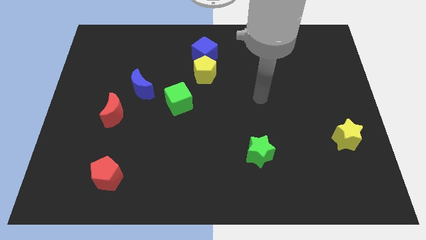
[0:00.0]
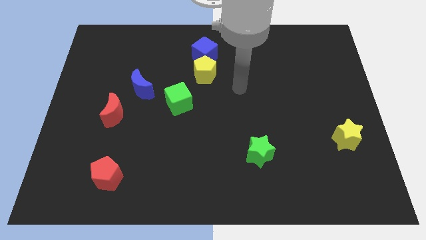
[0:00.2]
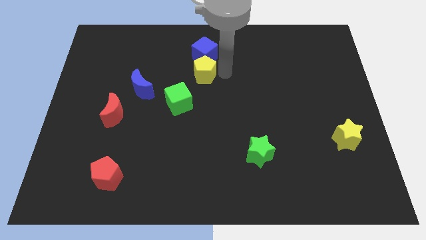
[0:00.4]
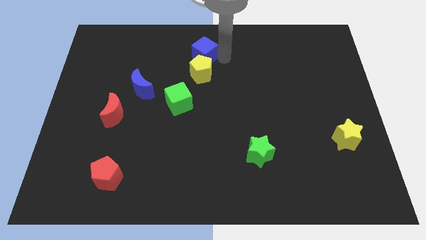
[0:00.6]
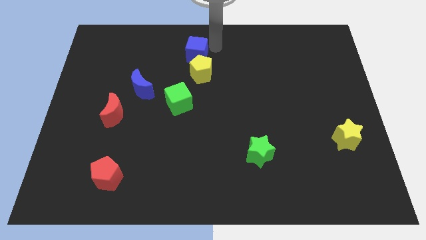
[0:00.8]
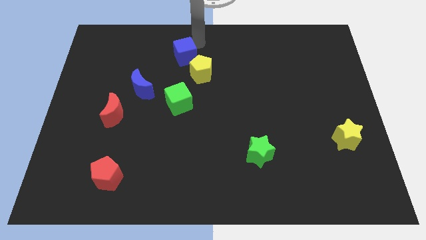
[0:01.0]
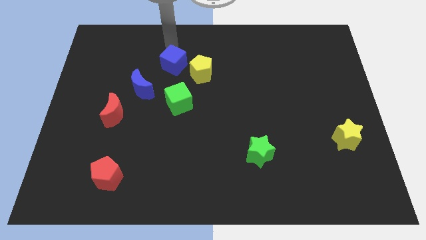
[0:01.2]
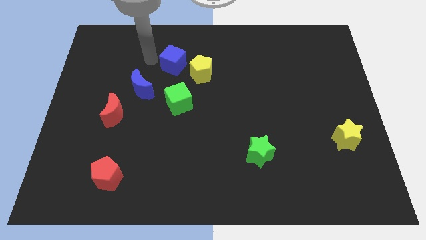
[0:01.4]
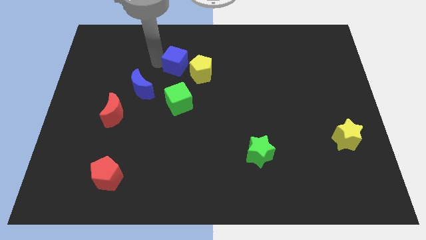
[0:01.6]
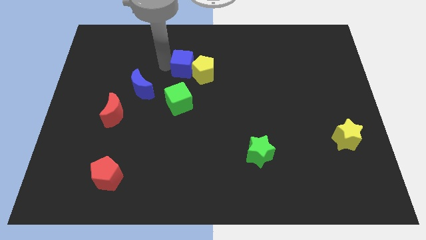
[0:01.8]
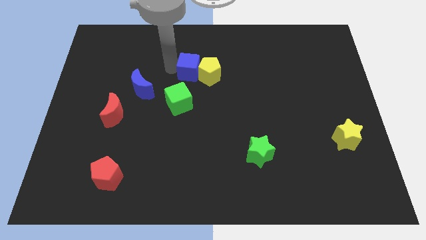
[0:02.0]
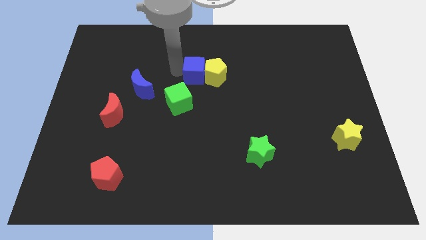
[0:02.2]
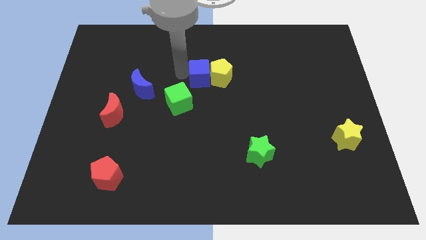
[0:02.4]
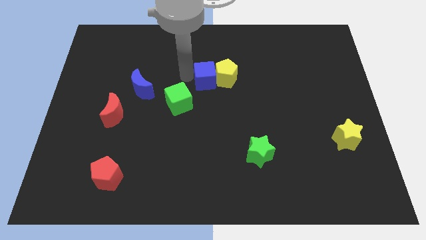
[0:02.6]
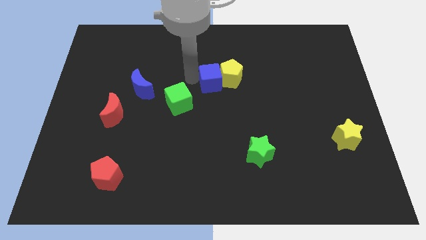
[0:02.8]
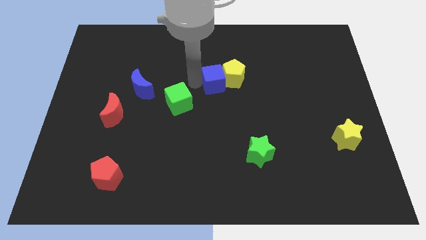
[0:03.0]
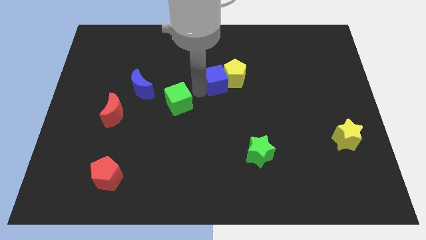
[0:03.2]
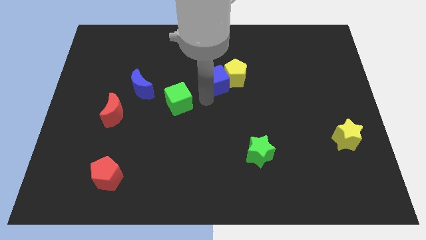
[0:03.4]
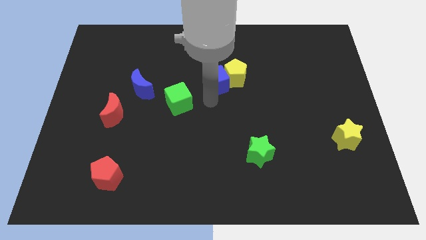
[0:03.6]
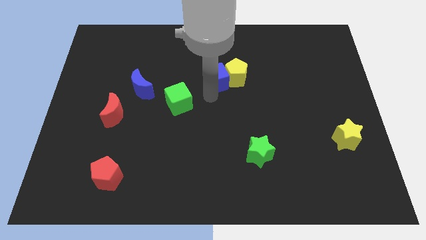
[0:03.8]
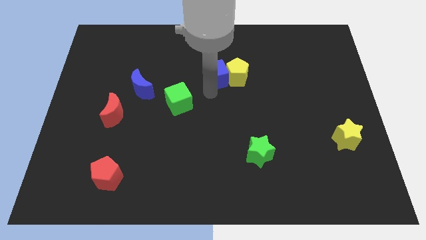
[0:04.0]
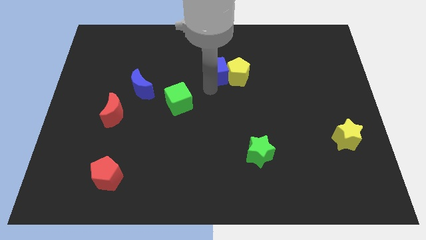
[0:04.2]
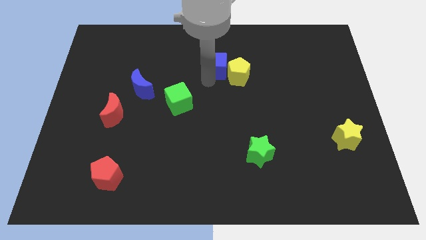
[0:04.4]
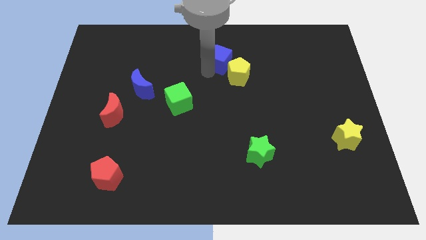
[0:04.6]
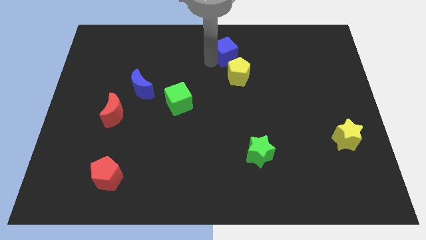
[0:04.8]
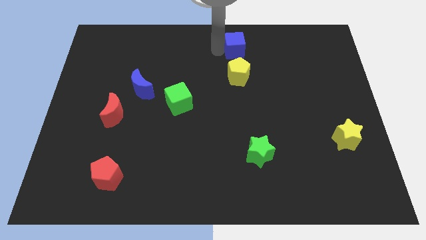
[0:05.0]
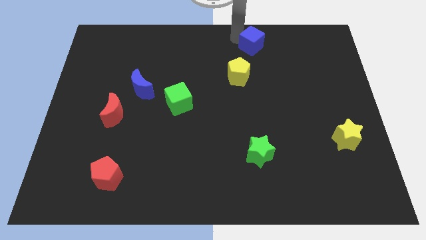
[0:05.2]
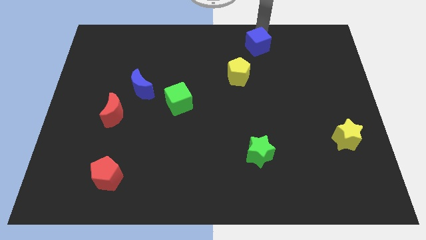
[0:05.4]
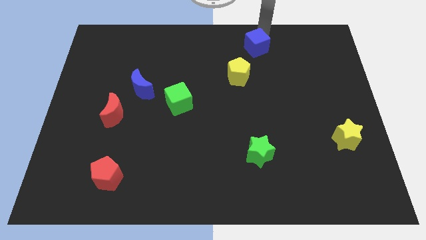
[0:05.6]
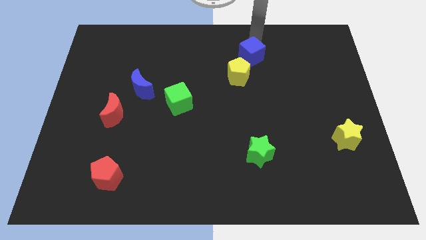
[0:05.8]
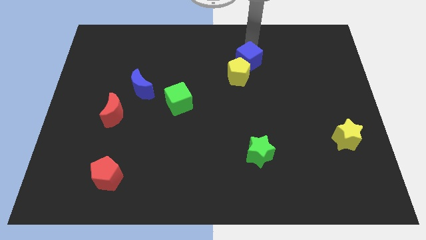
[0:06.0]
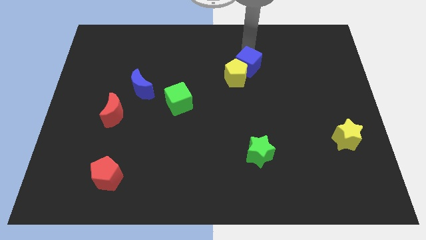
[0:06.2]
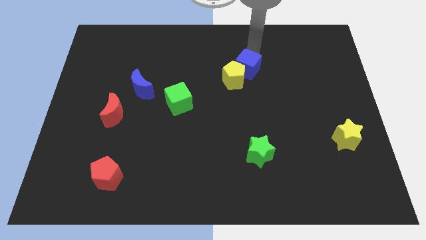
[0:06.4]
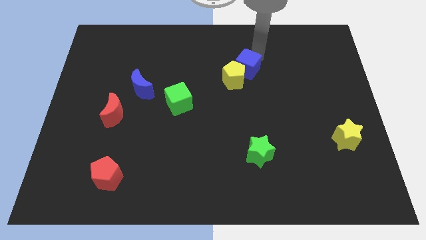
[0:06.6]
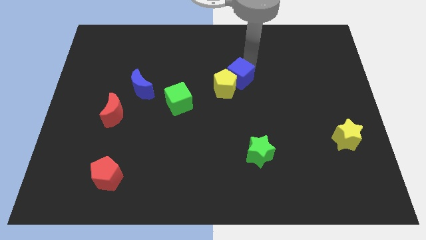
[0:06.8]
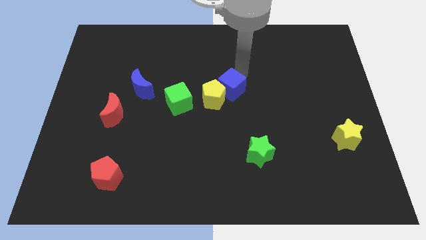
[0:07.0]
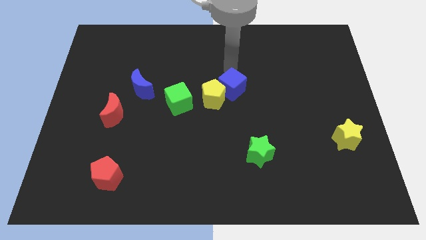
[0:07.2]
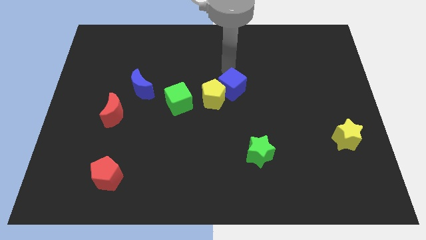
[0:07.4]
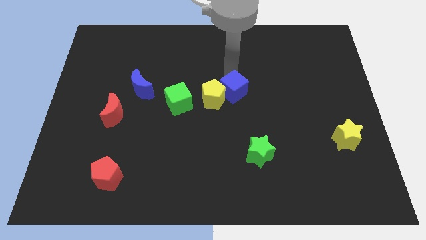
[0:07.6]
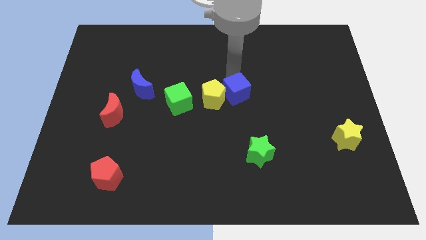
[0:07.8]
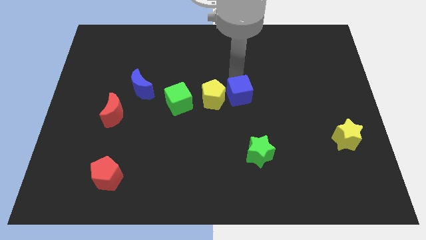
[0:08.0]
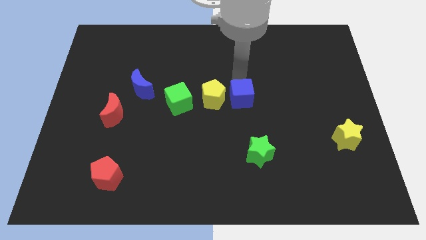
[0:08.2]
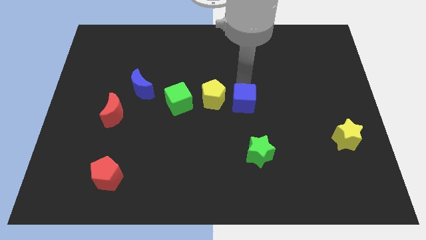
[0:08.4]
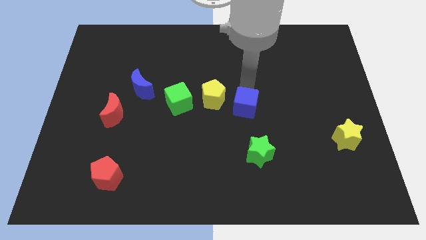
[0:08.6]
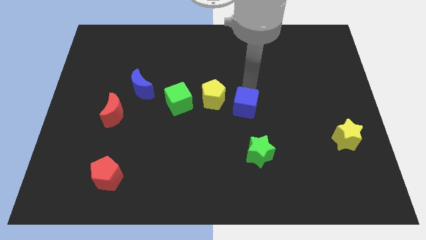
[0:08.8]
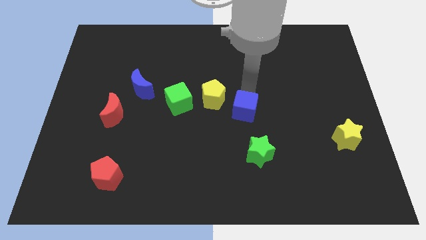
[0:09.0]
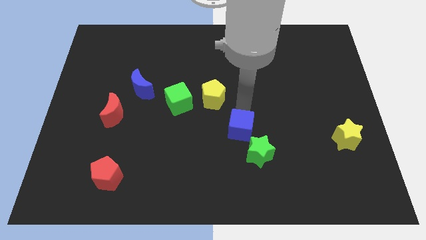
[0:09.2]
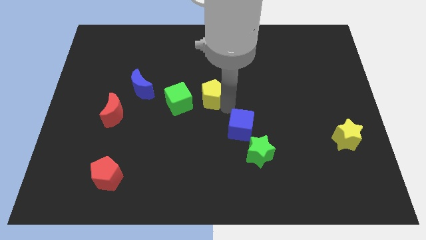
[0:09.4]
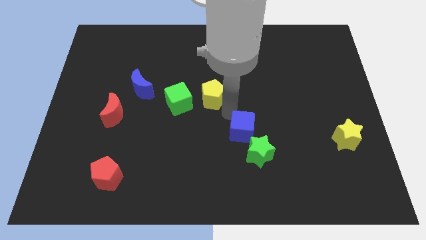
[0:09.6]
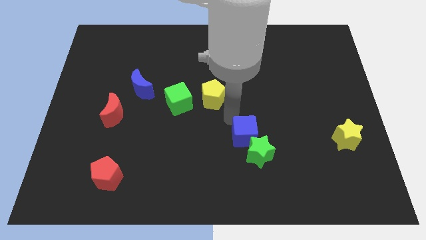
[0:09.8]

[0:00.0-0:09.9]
slide the blue cube next to the green star

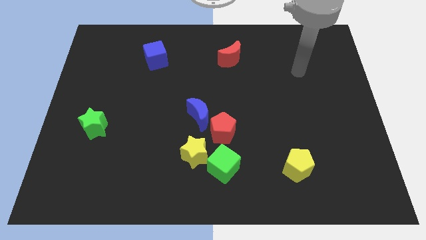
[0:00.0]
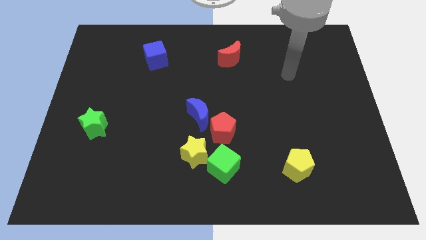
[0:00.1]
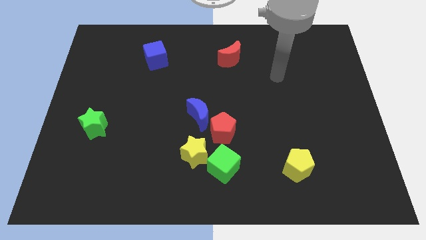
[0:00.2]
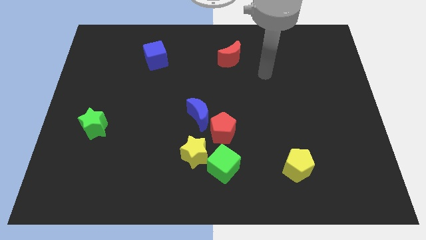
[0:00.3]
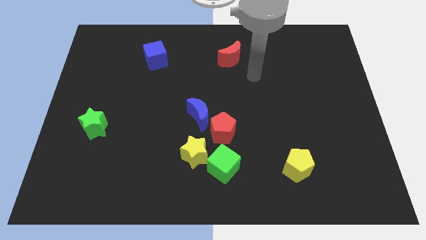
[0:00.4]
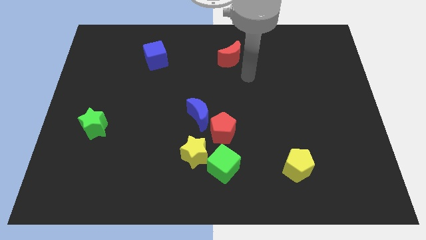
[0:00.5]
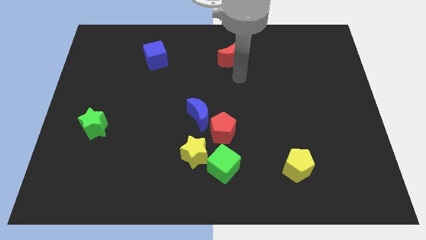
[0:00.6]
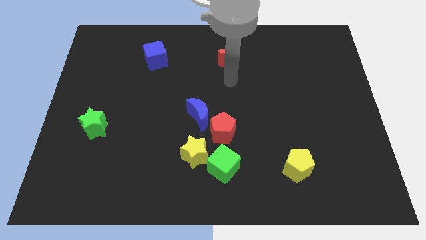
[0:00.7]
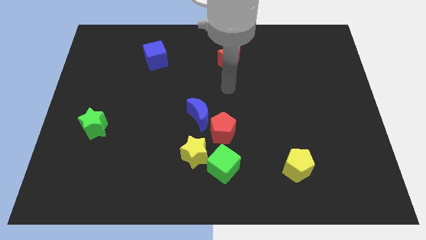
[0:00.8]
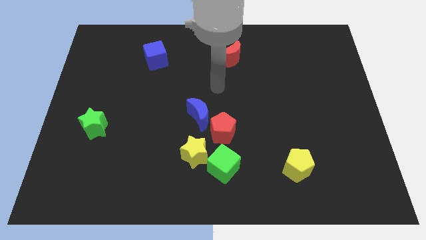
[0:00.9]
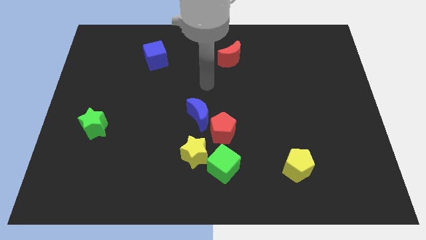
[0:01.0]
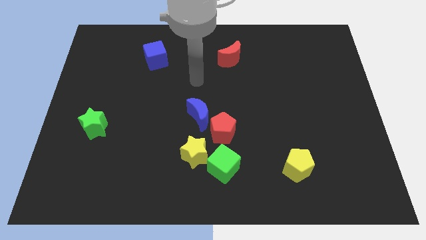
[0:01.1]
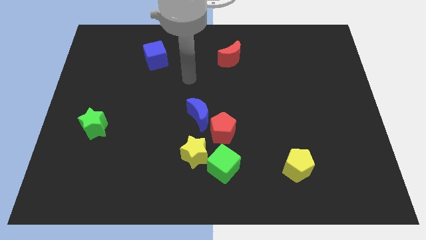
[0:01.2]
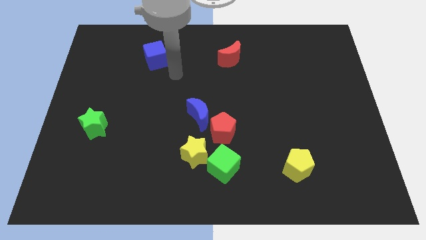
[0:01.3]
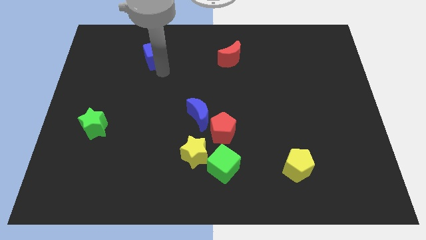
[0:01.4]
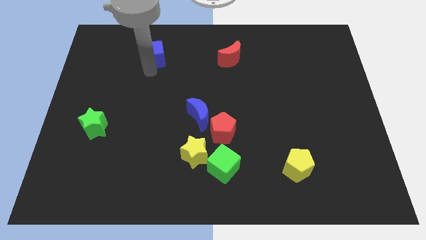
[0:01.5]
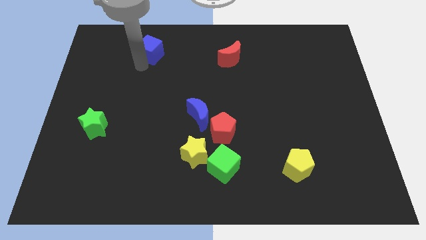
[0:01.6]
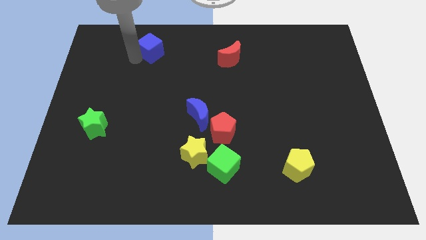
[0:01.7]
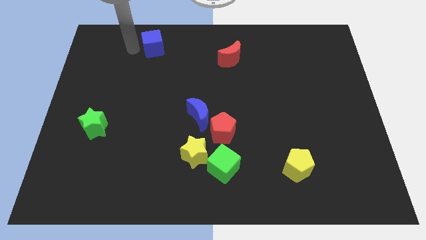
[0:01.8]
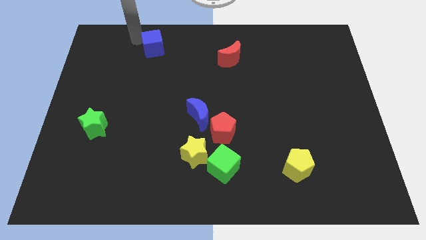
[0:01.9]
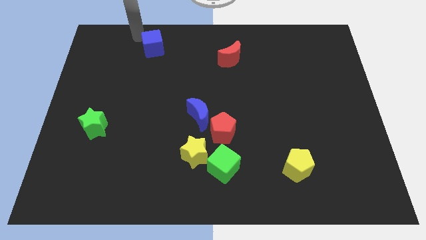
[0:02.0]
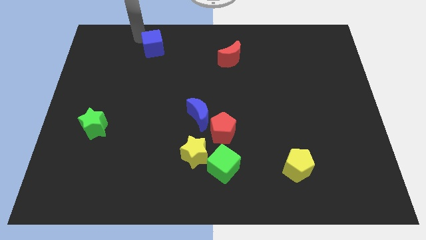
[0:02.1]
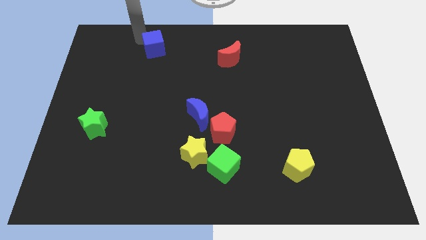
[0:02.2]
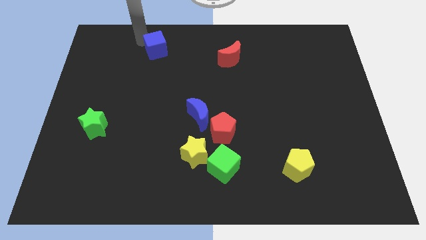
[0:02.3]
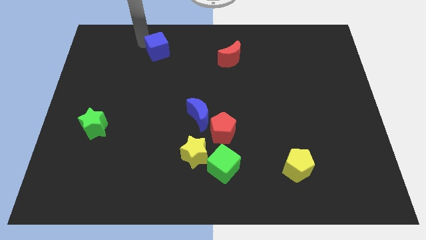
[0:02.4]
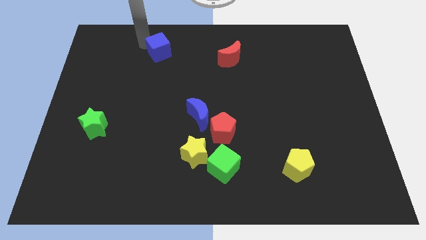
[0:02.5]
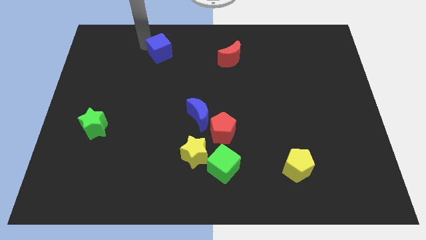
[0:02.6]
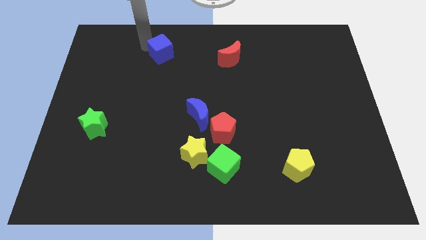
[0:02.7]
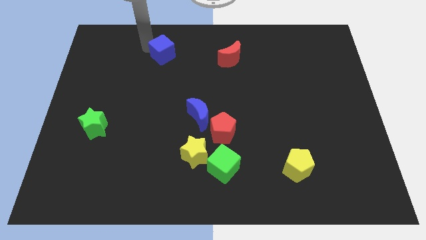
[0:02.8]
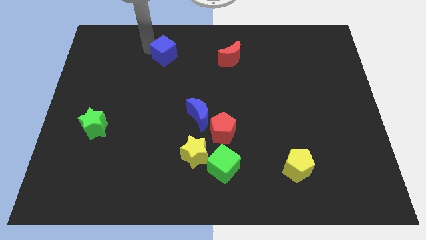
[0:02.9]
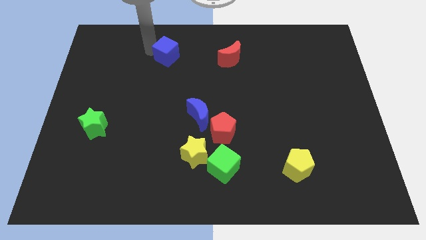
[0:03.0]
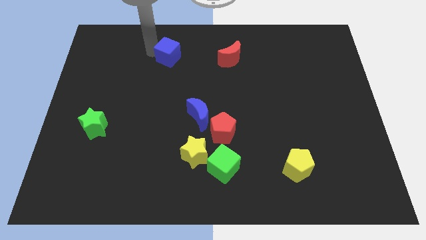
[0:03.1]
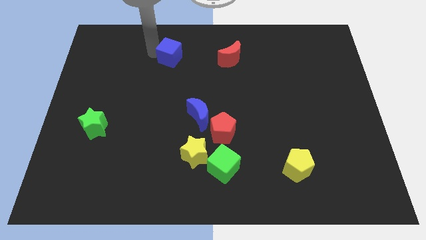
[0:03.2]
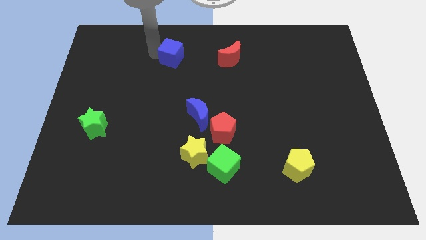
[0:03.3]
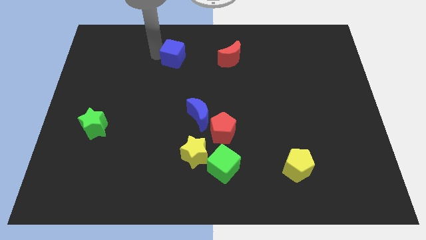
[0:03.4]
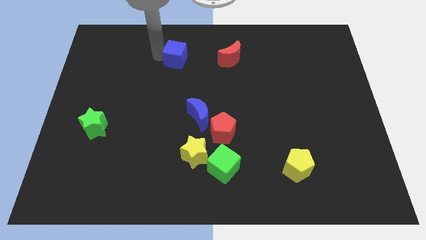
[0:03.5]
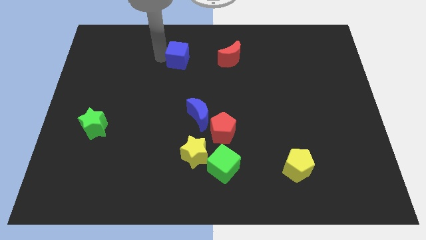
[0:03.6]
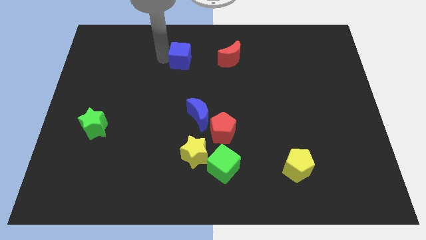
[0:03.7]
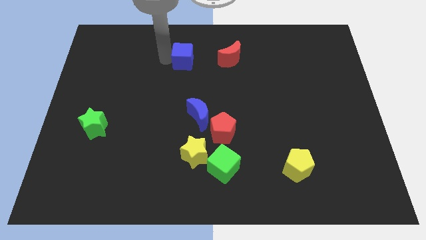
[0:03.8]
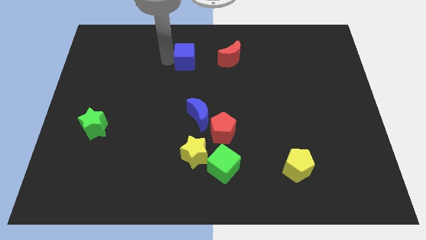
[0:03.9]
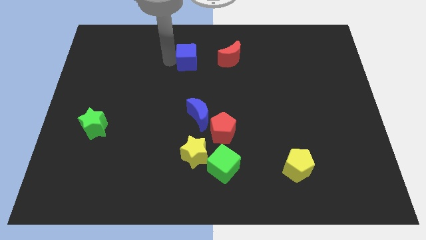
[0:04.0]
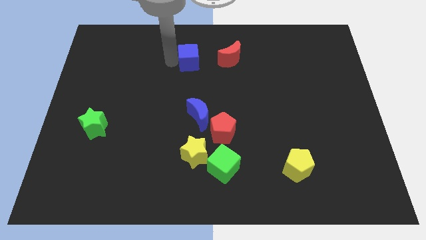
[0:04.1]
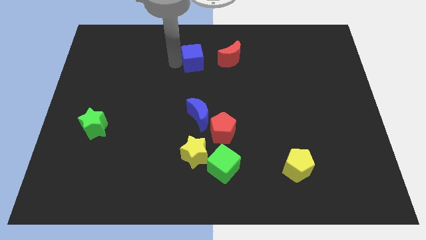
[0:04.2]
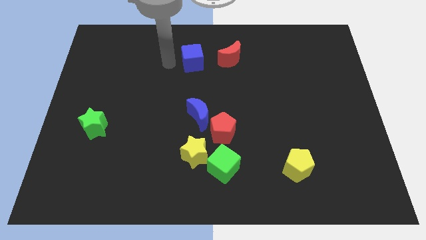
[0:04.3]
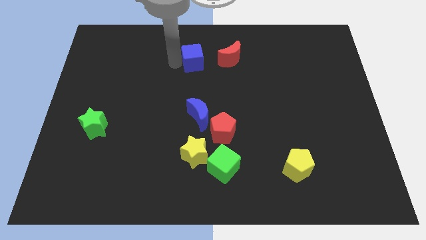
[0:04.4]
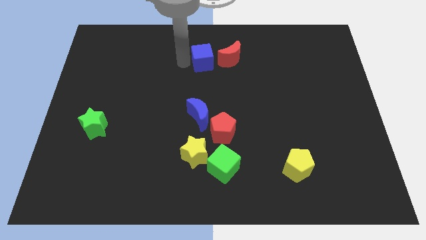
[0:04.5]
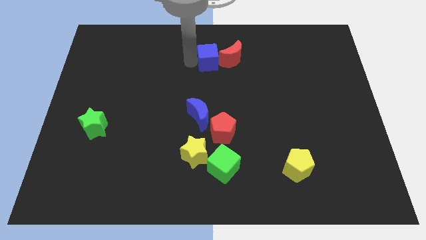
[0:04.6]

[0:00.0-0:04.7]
push the blue cube towards the red moon
